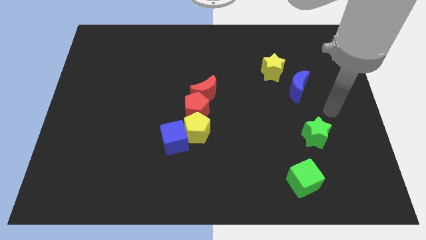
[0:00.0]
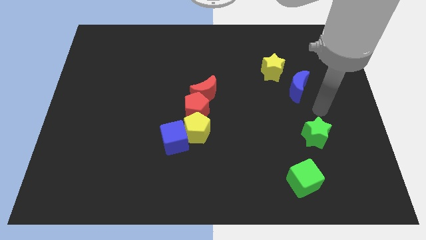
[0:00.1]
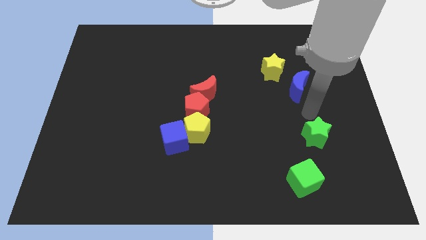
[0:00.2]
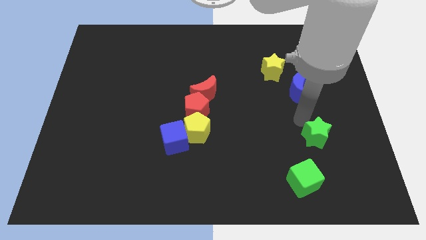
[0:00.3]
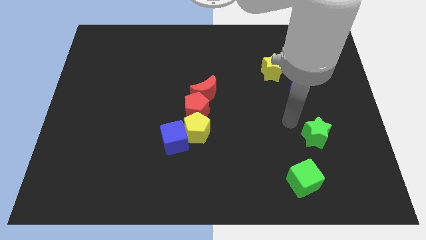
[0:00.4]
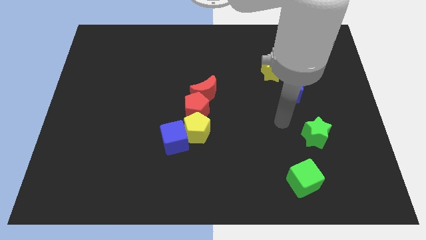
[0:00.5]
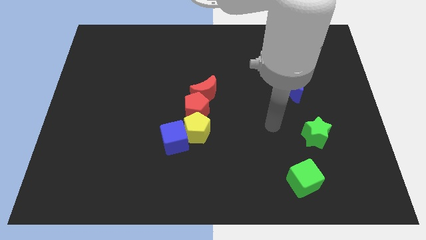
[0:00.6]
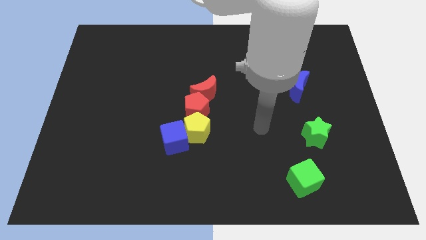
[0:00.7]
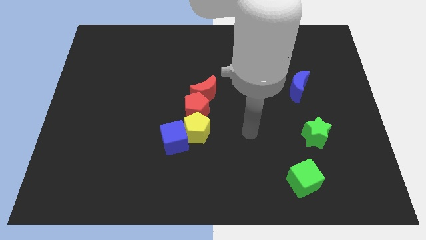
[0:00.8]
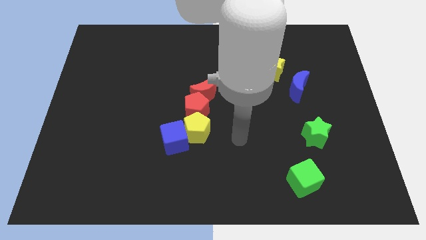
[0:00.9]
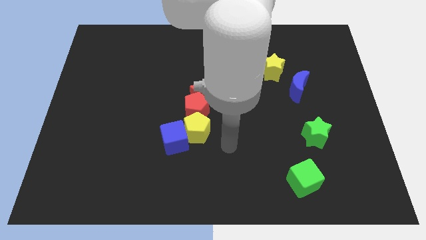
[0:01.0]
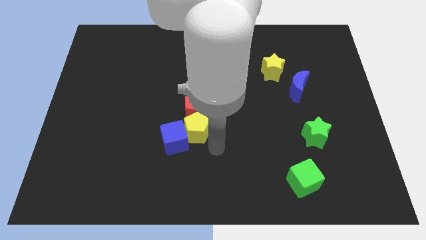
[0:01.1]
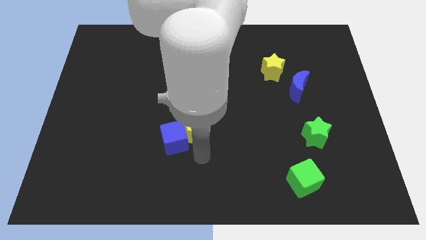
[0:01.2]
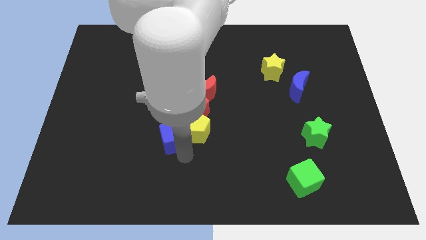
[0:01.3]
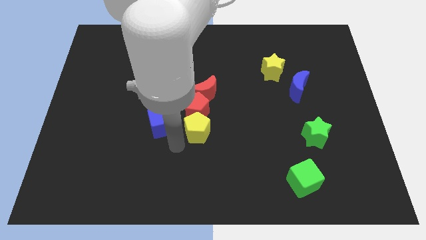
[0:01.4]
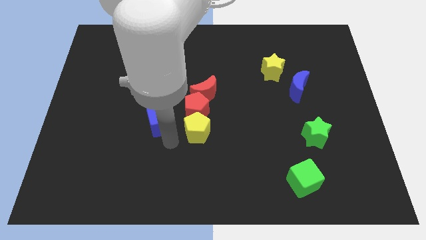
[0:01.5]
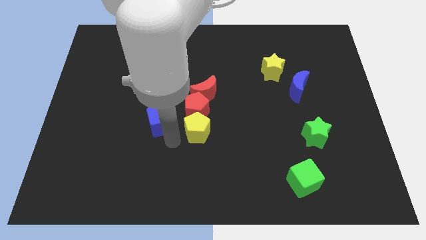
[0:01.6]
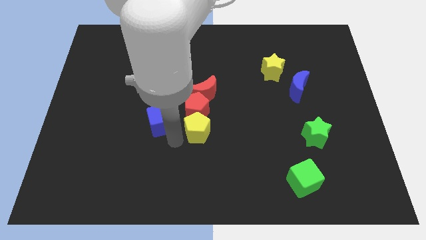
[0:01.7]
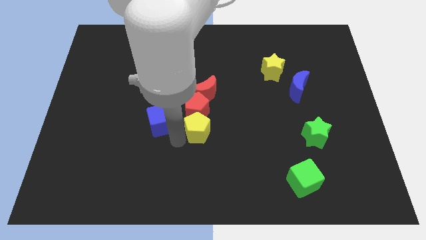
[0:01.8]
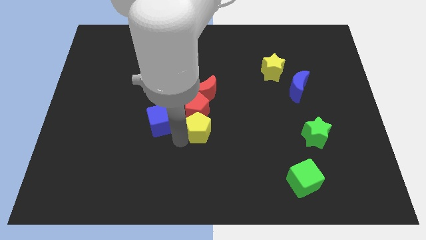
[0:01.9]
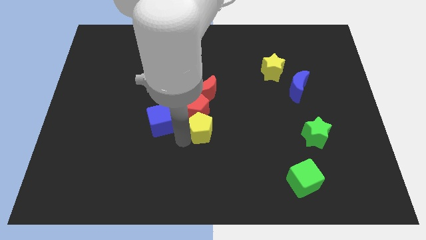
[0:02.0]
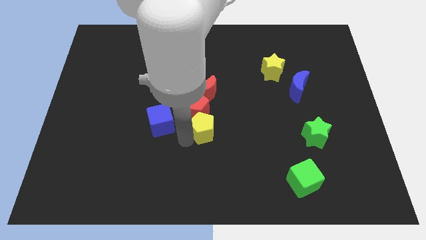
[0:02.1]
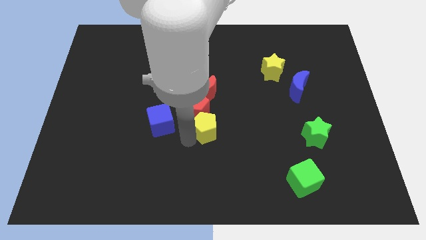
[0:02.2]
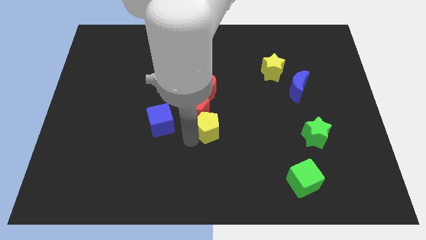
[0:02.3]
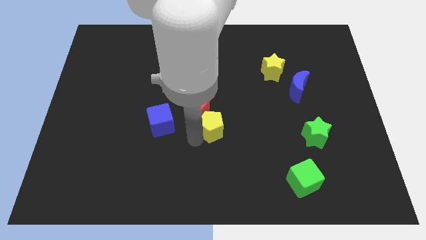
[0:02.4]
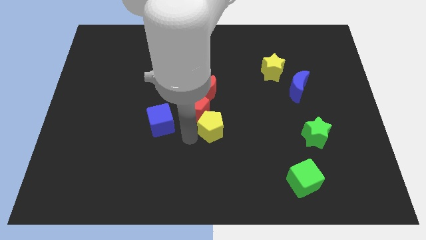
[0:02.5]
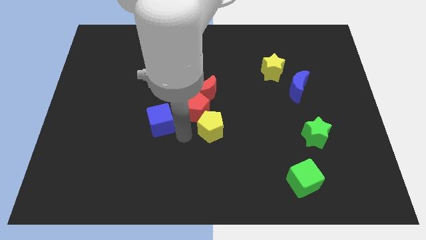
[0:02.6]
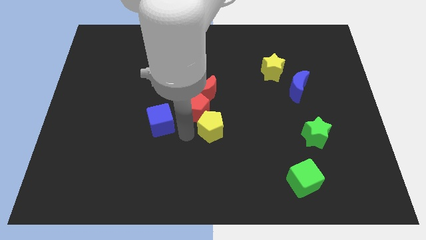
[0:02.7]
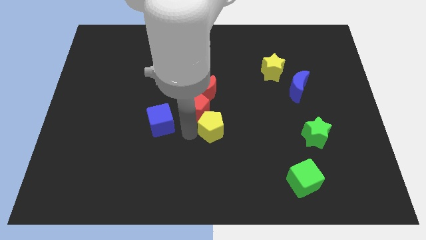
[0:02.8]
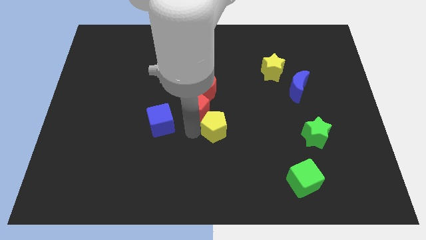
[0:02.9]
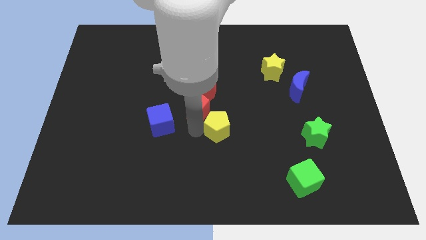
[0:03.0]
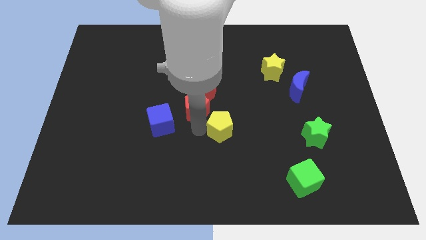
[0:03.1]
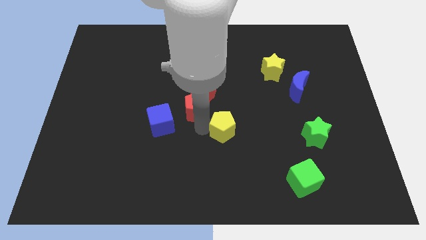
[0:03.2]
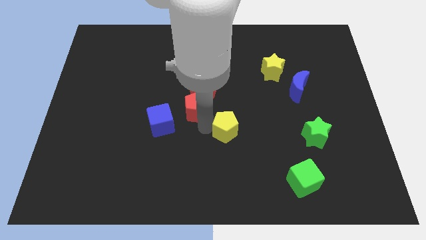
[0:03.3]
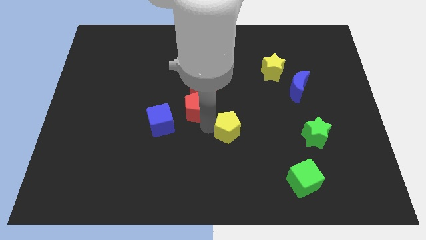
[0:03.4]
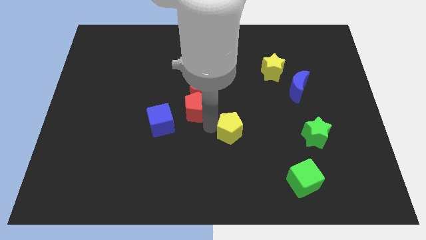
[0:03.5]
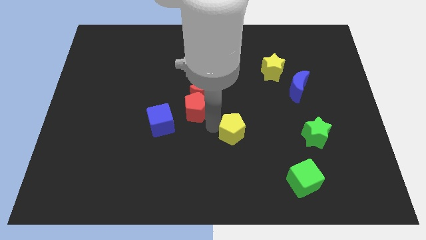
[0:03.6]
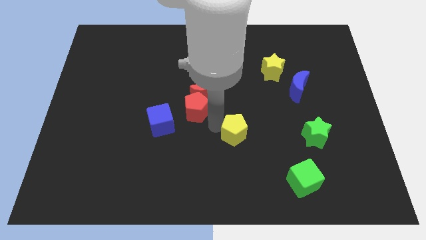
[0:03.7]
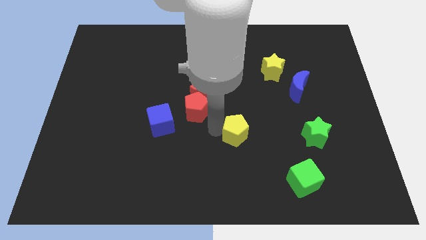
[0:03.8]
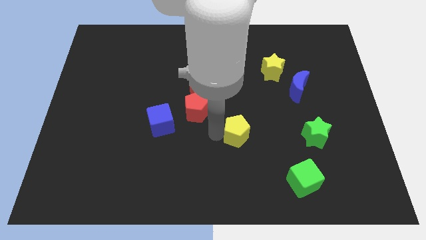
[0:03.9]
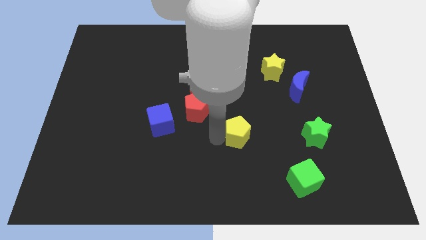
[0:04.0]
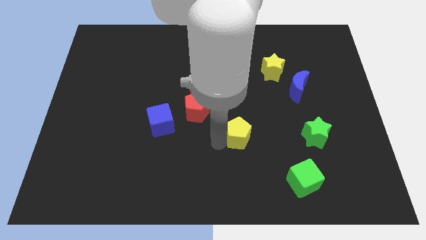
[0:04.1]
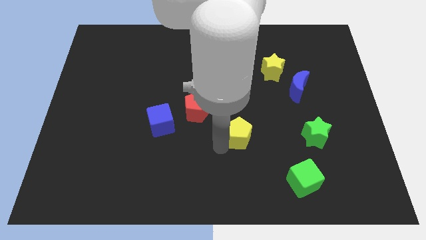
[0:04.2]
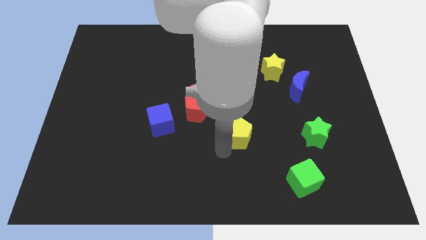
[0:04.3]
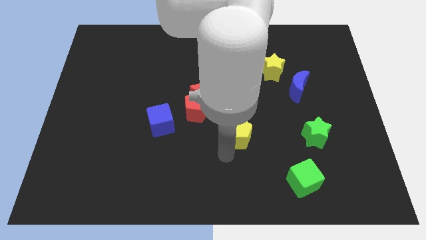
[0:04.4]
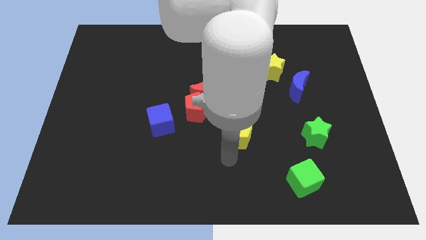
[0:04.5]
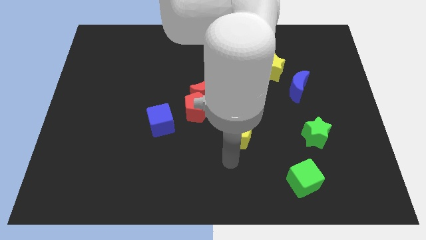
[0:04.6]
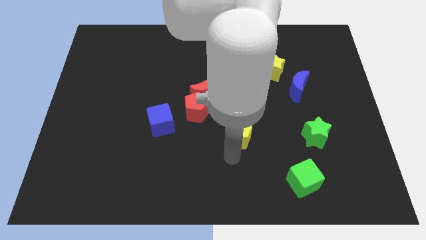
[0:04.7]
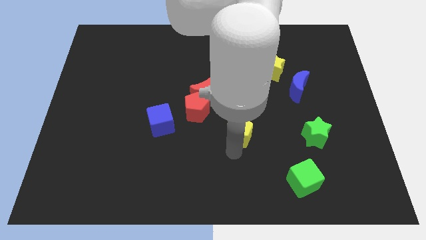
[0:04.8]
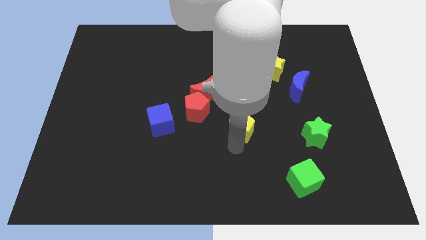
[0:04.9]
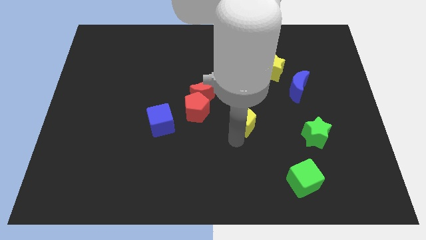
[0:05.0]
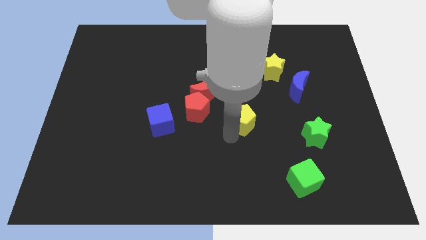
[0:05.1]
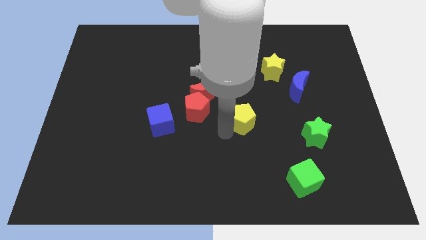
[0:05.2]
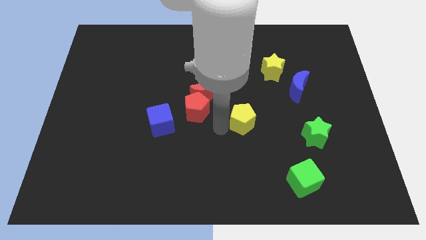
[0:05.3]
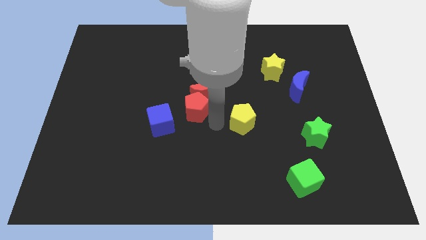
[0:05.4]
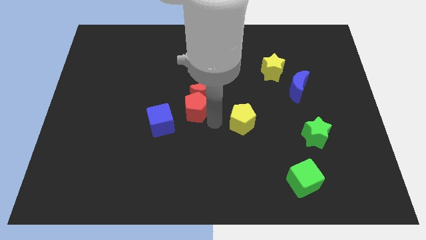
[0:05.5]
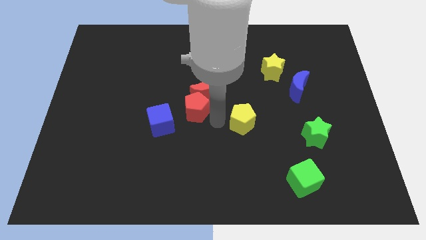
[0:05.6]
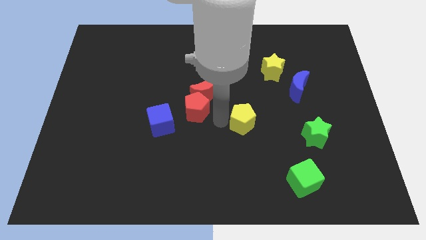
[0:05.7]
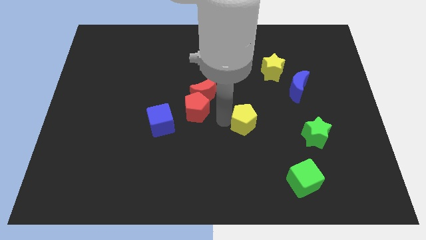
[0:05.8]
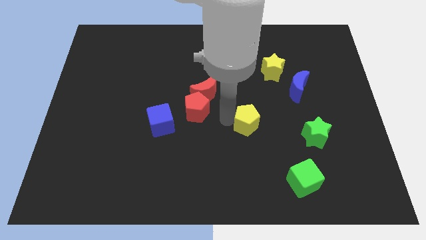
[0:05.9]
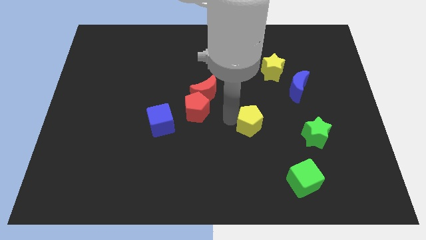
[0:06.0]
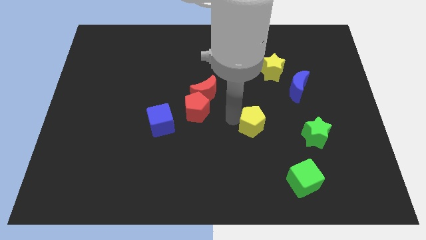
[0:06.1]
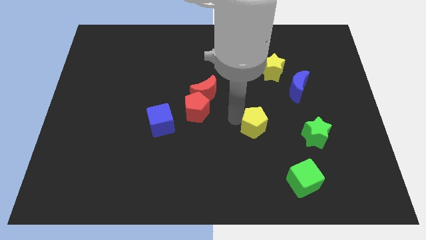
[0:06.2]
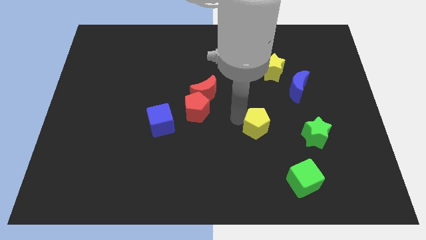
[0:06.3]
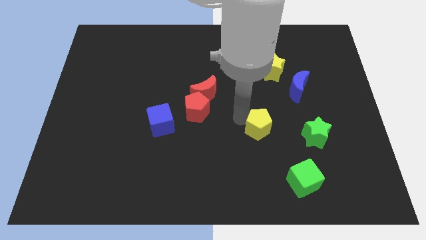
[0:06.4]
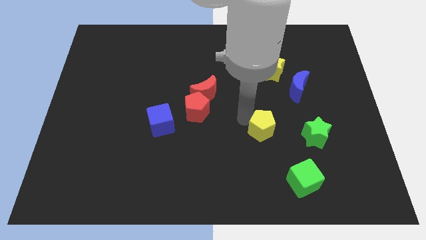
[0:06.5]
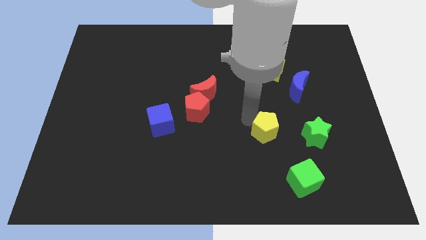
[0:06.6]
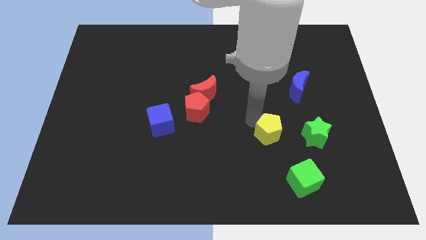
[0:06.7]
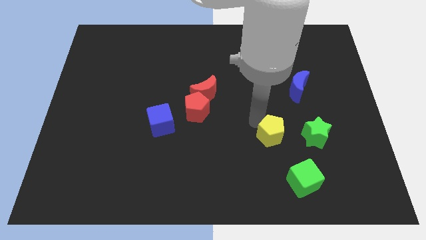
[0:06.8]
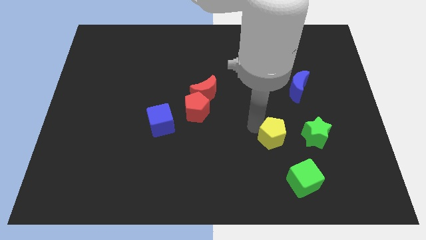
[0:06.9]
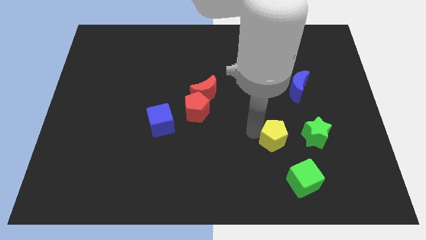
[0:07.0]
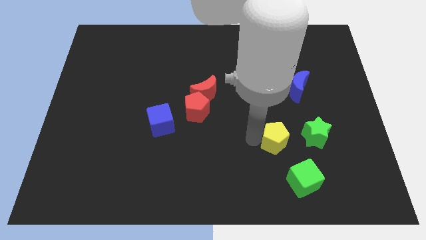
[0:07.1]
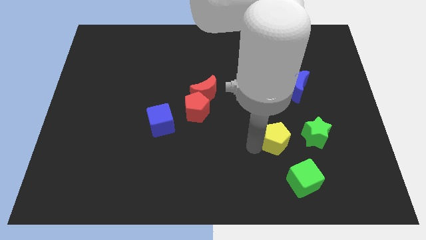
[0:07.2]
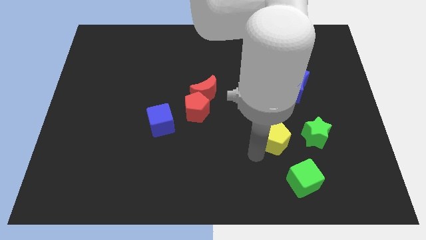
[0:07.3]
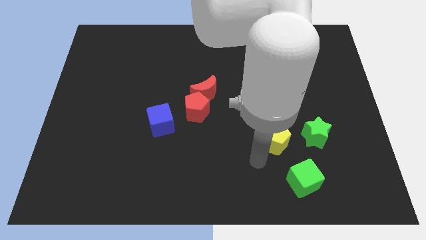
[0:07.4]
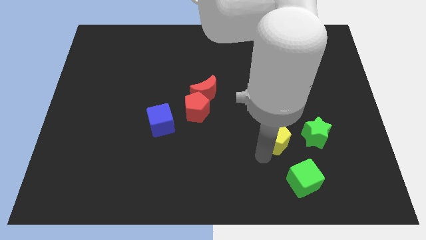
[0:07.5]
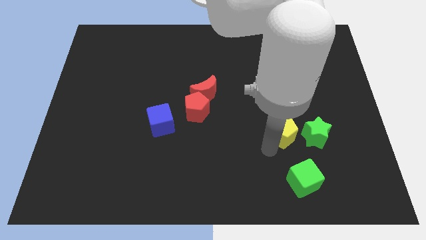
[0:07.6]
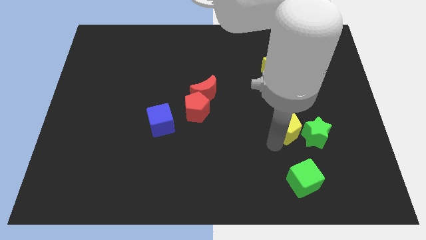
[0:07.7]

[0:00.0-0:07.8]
push the yellow pentagon to the right

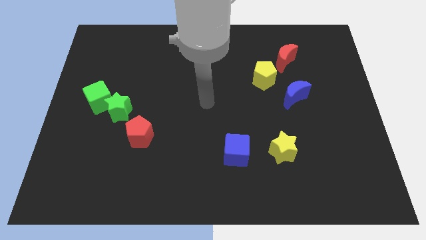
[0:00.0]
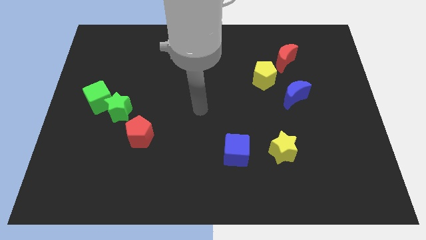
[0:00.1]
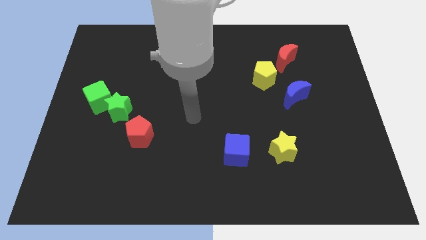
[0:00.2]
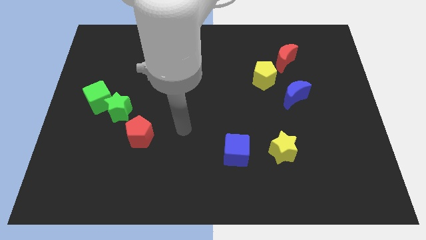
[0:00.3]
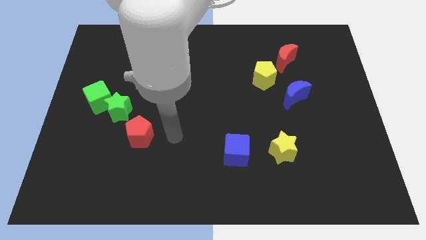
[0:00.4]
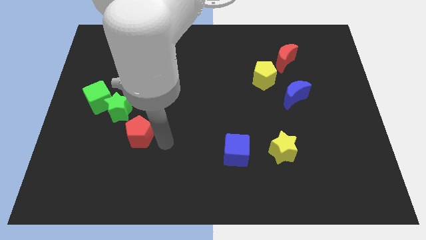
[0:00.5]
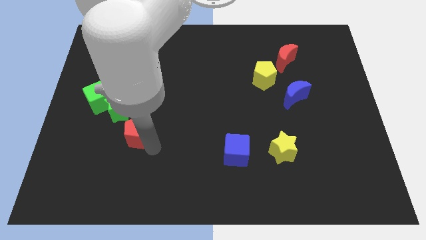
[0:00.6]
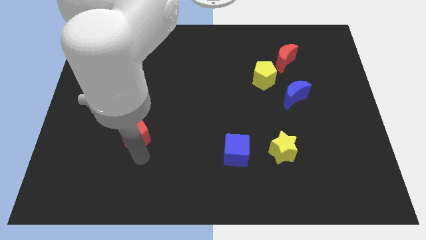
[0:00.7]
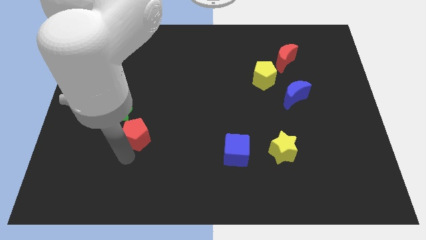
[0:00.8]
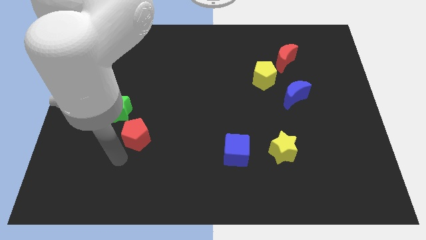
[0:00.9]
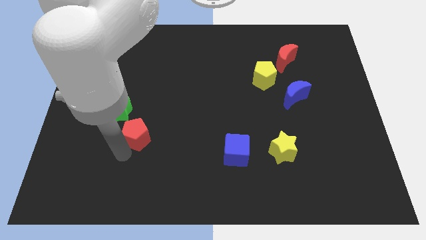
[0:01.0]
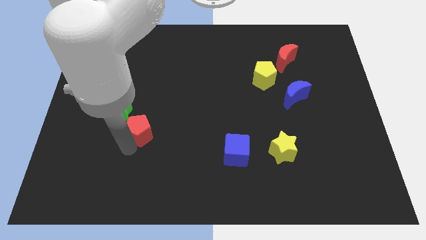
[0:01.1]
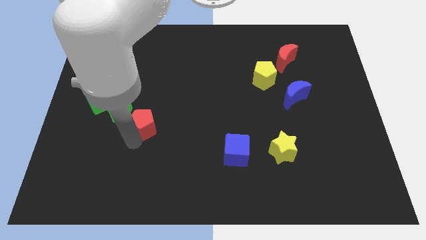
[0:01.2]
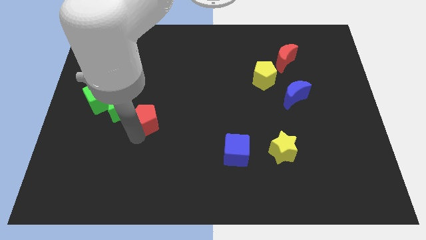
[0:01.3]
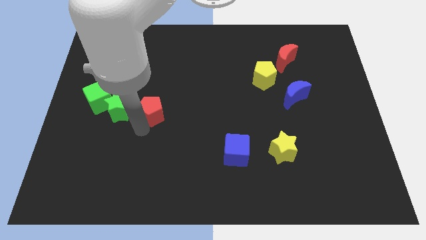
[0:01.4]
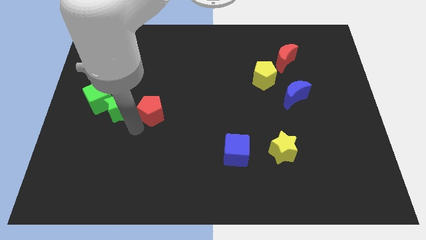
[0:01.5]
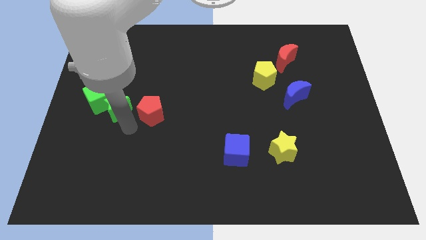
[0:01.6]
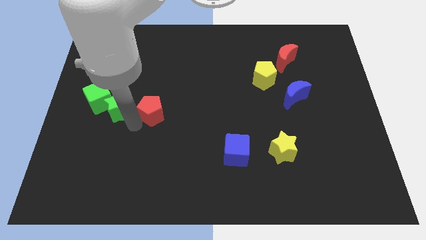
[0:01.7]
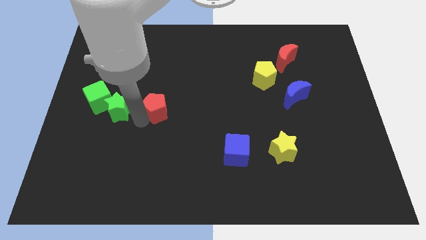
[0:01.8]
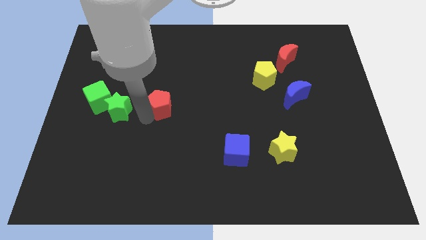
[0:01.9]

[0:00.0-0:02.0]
move the red pentagon a bit upwards and then right
